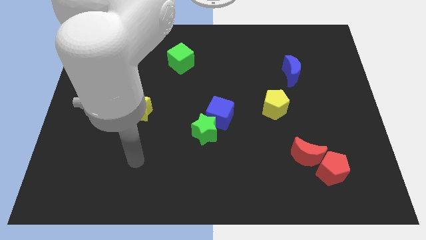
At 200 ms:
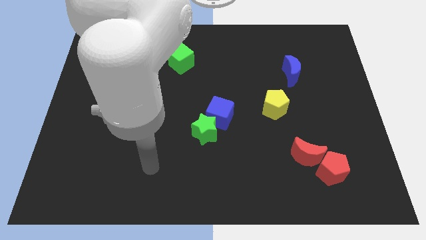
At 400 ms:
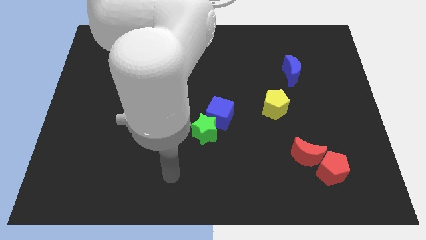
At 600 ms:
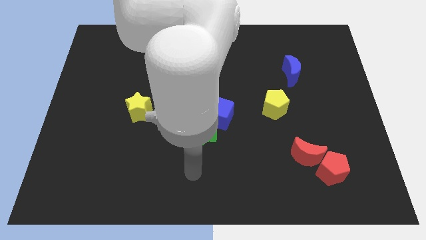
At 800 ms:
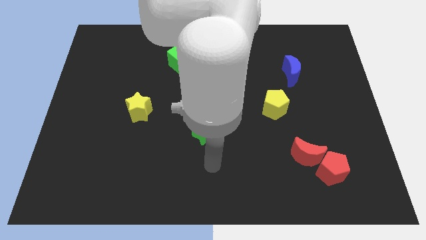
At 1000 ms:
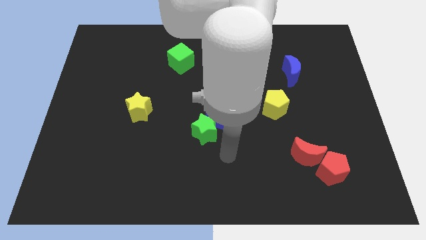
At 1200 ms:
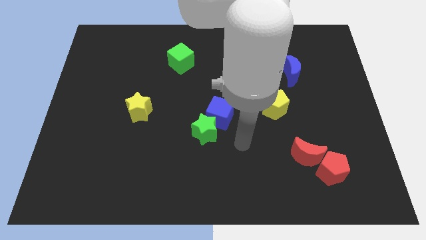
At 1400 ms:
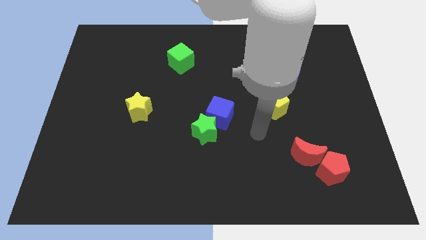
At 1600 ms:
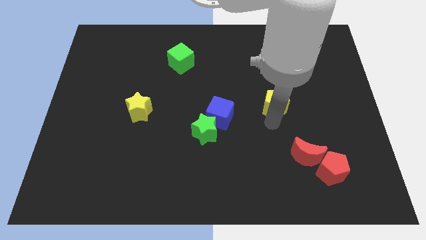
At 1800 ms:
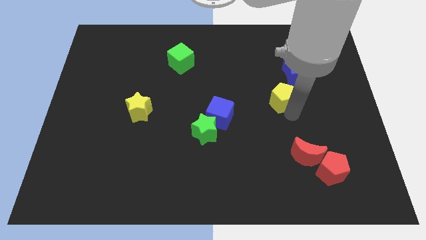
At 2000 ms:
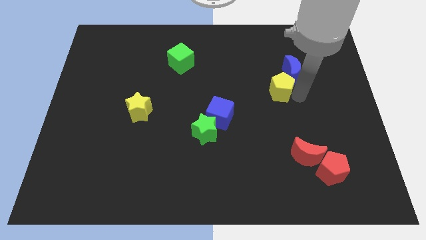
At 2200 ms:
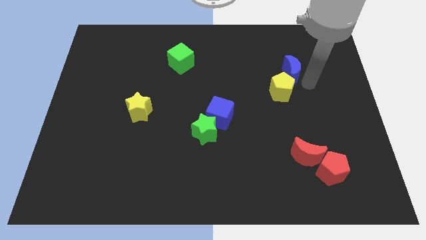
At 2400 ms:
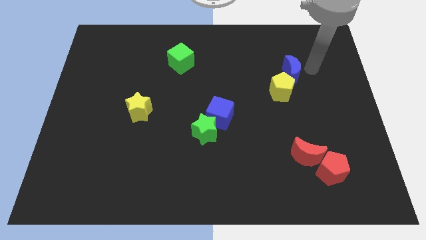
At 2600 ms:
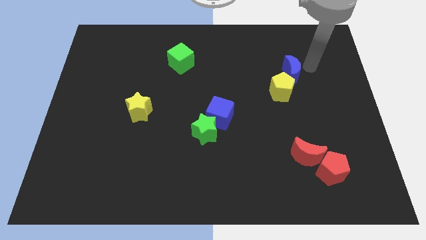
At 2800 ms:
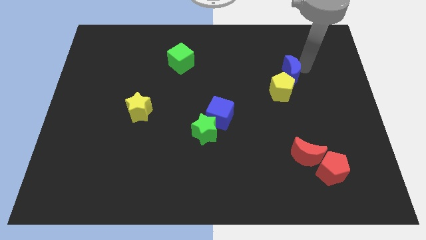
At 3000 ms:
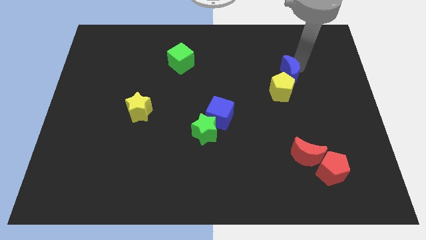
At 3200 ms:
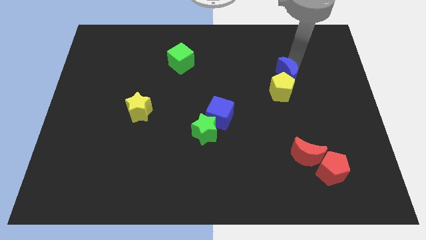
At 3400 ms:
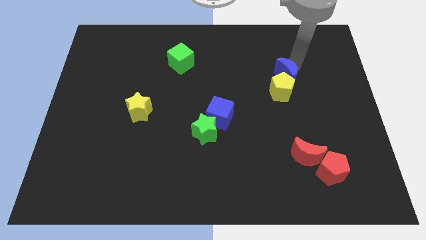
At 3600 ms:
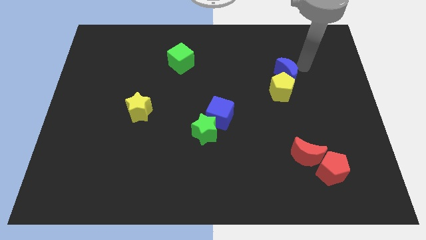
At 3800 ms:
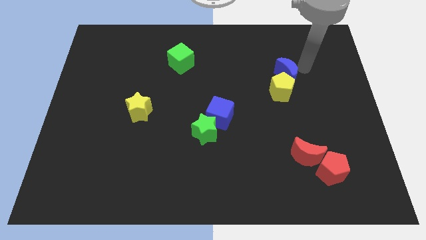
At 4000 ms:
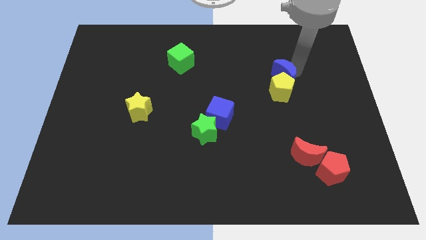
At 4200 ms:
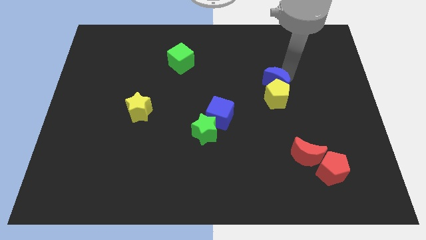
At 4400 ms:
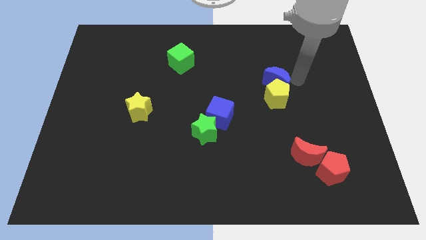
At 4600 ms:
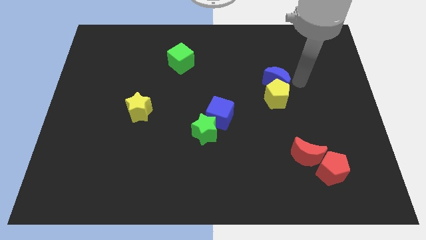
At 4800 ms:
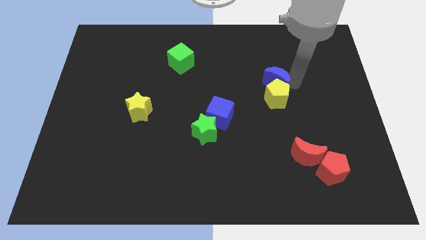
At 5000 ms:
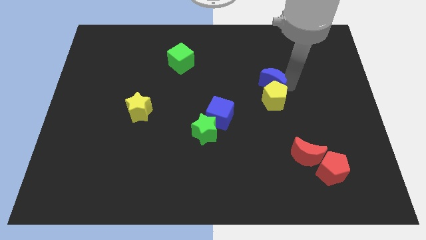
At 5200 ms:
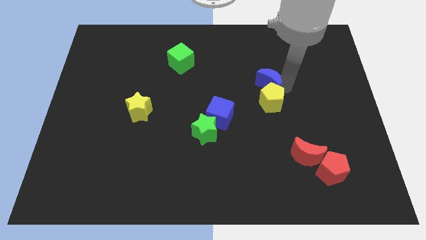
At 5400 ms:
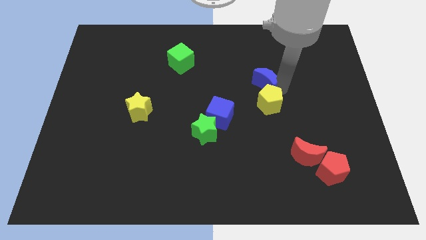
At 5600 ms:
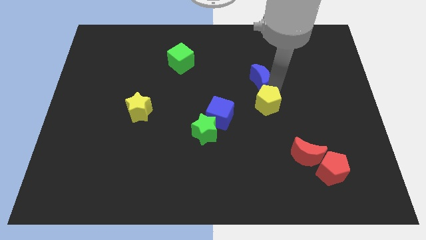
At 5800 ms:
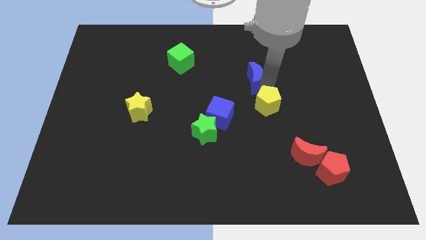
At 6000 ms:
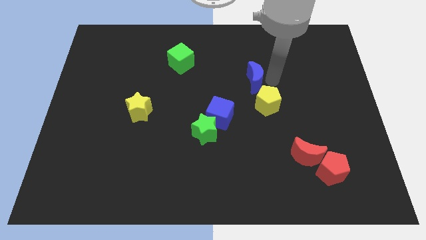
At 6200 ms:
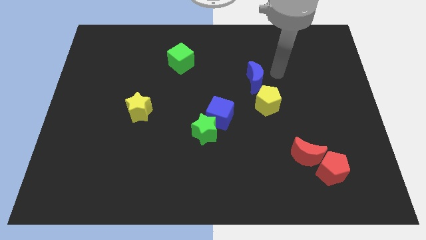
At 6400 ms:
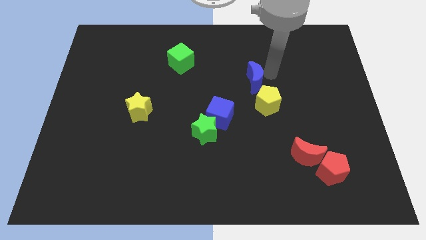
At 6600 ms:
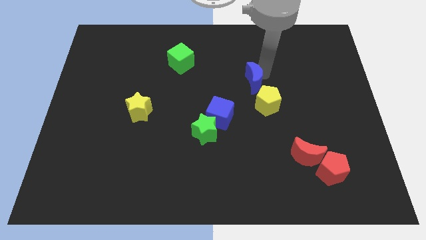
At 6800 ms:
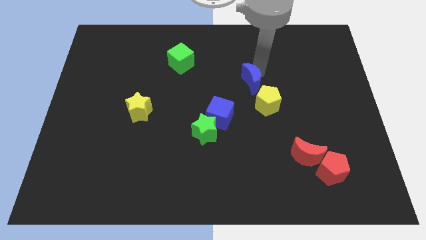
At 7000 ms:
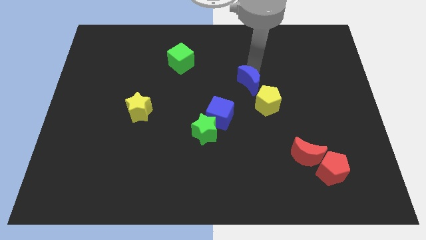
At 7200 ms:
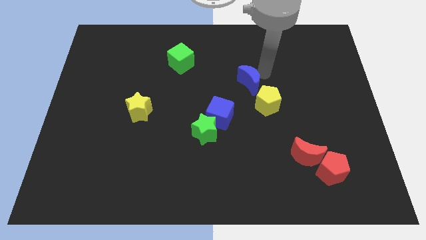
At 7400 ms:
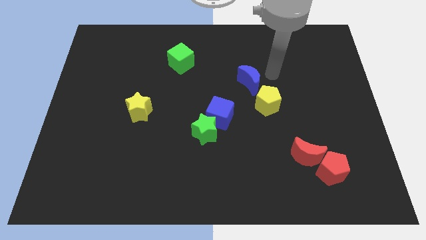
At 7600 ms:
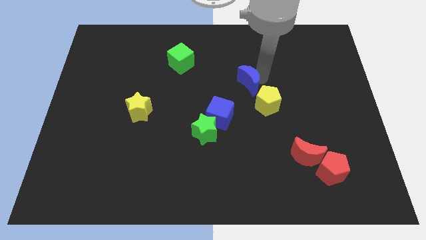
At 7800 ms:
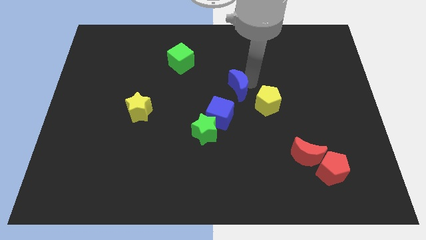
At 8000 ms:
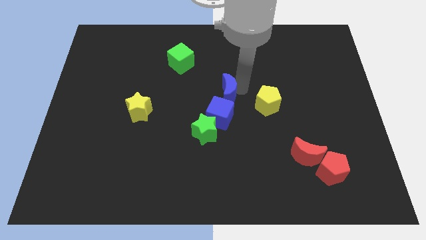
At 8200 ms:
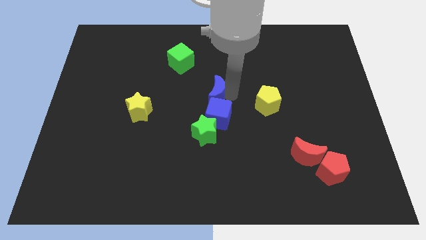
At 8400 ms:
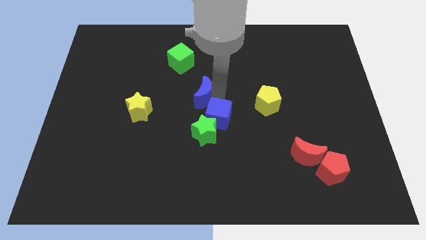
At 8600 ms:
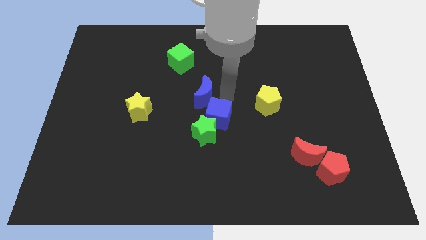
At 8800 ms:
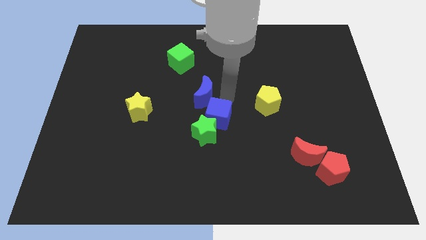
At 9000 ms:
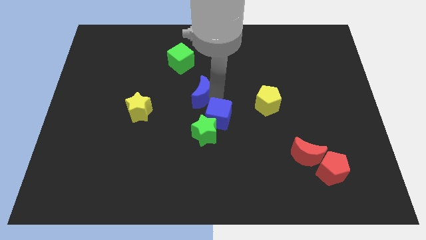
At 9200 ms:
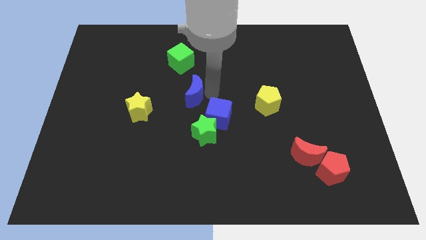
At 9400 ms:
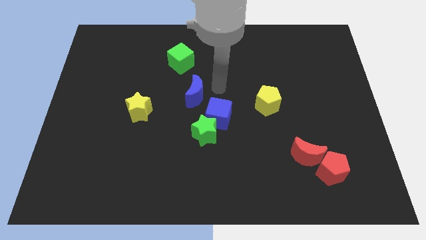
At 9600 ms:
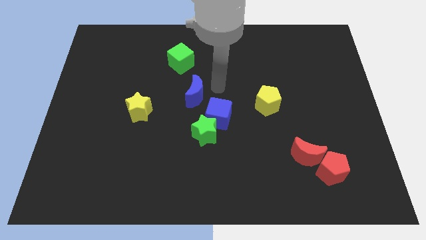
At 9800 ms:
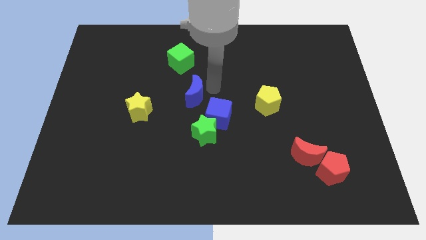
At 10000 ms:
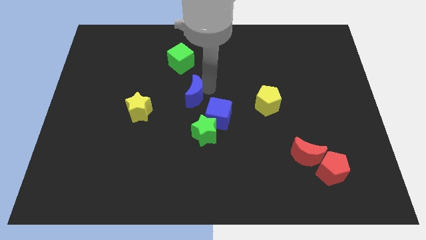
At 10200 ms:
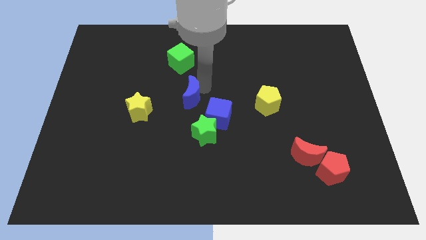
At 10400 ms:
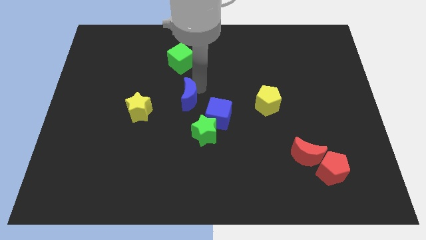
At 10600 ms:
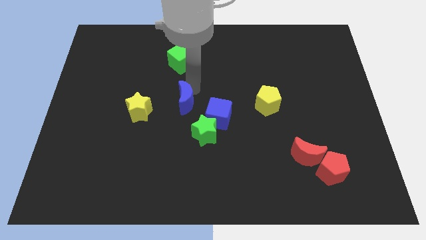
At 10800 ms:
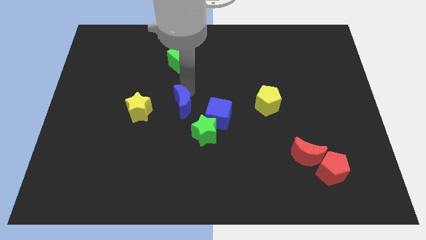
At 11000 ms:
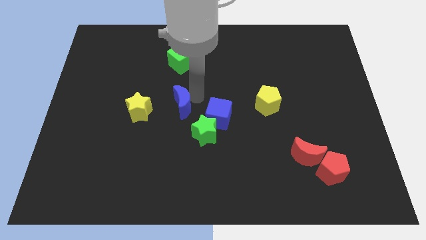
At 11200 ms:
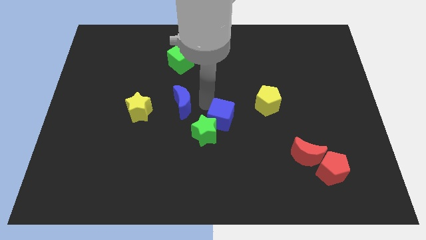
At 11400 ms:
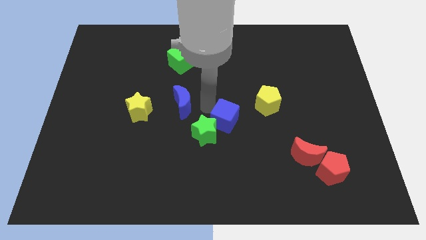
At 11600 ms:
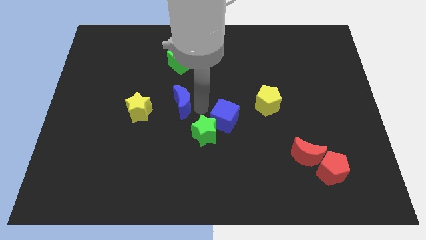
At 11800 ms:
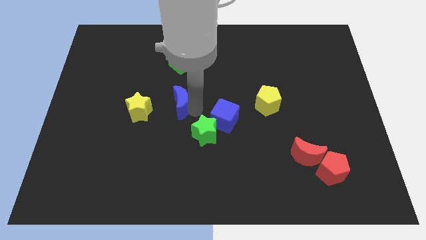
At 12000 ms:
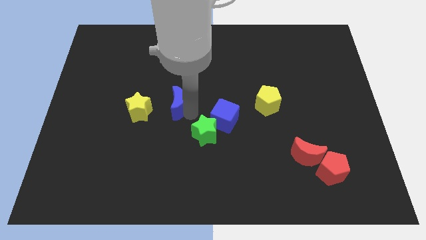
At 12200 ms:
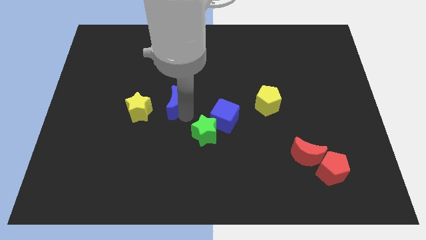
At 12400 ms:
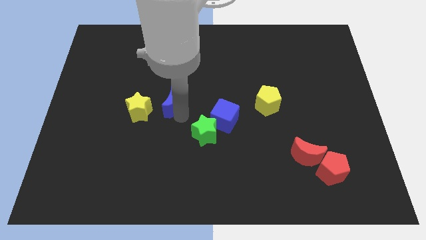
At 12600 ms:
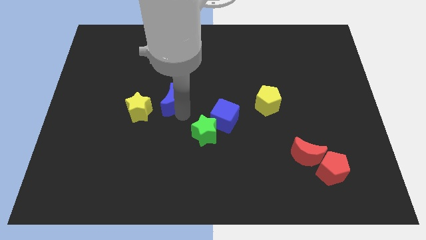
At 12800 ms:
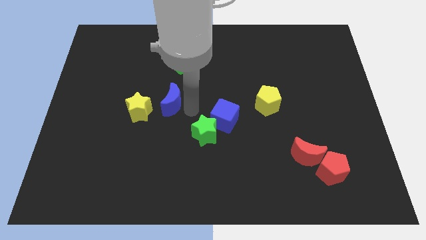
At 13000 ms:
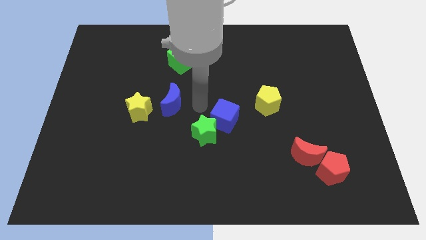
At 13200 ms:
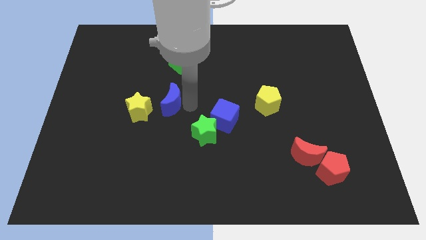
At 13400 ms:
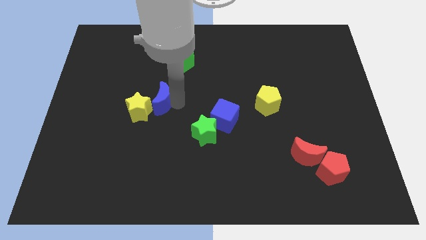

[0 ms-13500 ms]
move the blue moon close to the yellow star

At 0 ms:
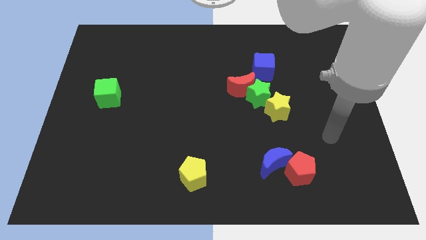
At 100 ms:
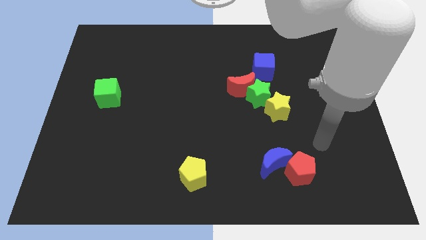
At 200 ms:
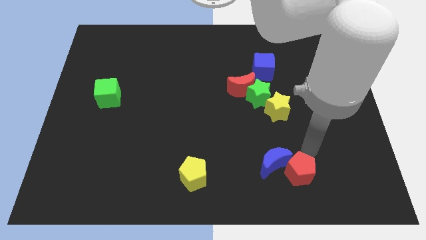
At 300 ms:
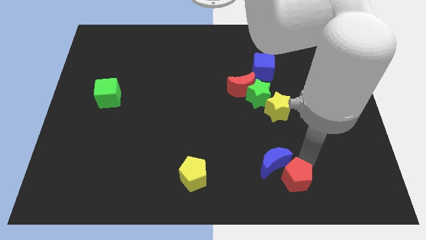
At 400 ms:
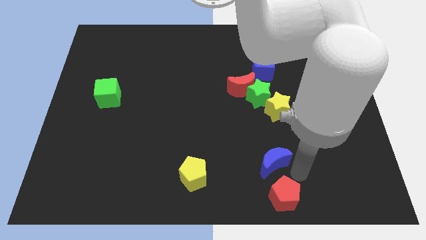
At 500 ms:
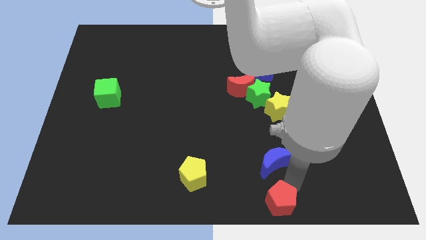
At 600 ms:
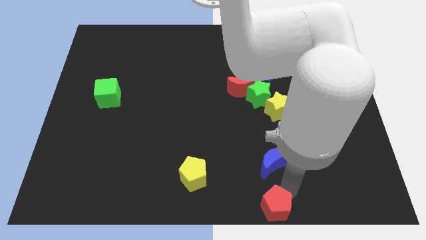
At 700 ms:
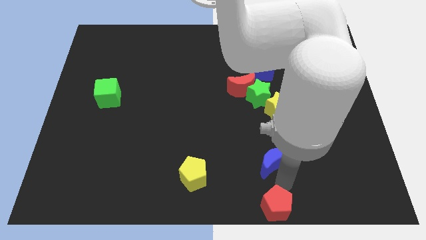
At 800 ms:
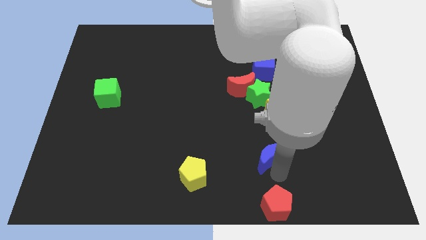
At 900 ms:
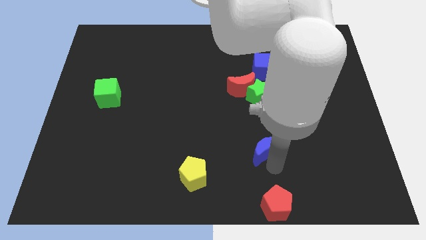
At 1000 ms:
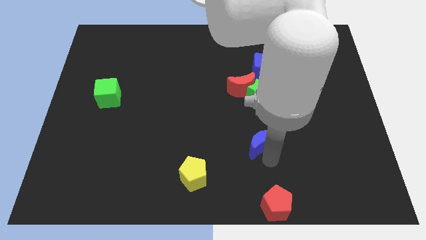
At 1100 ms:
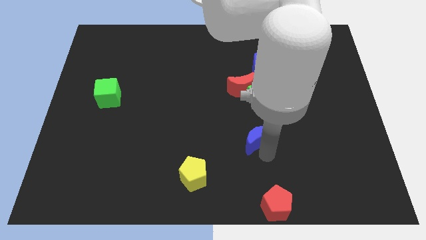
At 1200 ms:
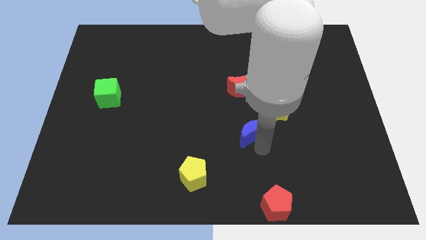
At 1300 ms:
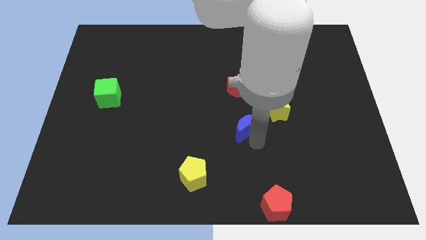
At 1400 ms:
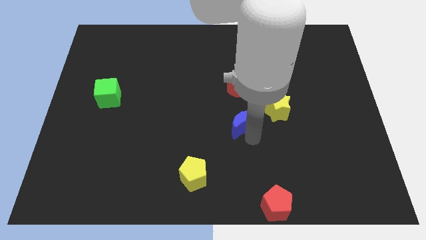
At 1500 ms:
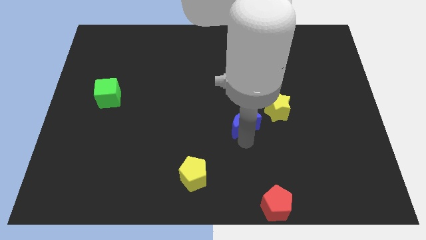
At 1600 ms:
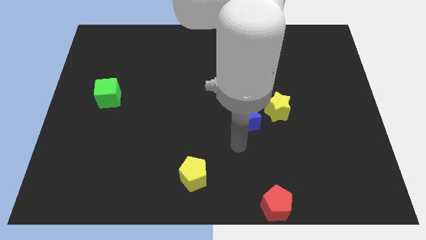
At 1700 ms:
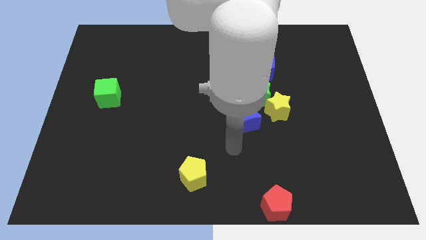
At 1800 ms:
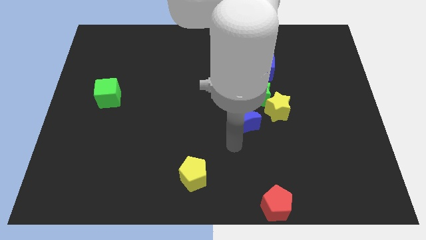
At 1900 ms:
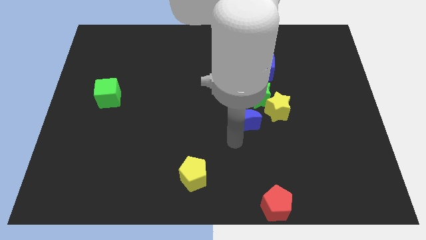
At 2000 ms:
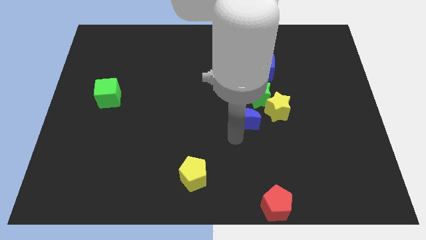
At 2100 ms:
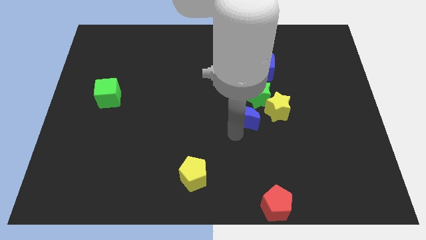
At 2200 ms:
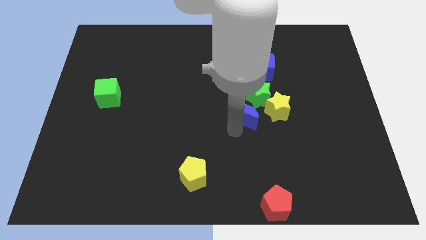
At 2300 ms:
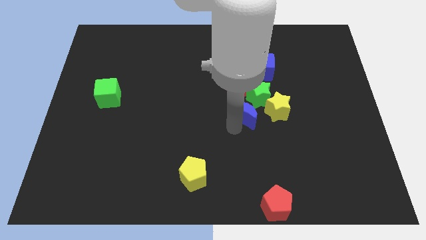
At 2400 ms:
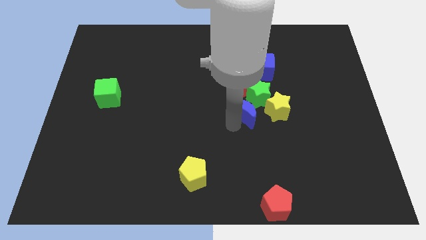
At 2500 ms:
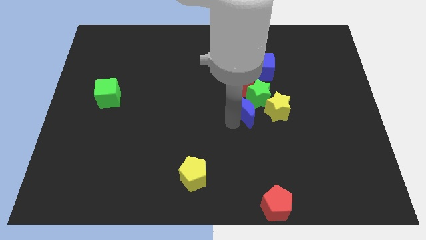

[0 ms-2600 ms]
put the blue moon to the green star
